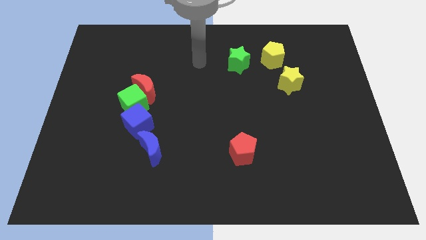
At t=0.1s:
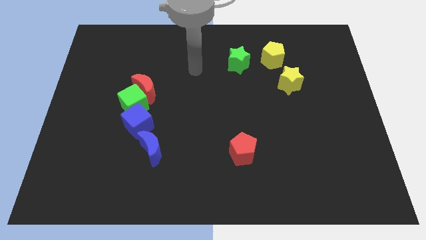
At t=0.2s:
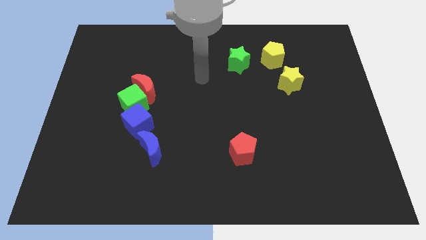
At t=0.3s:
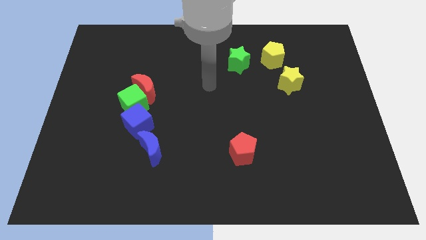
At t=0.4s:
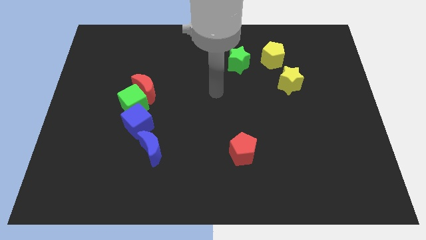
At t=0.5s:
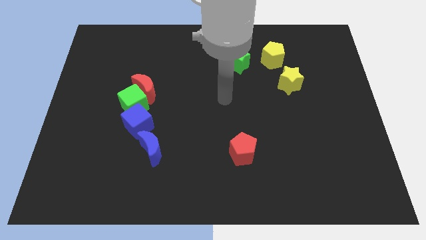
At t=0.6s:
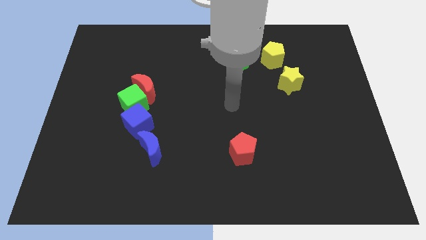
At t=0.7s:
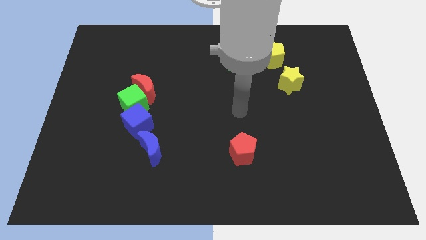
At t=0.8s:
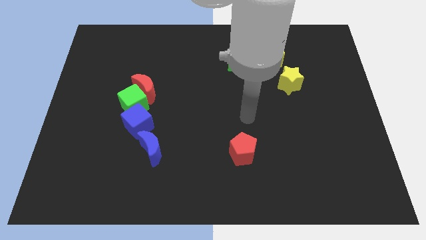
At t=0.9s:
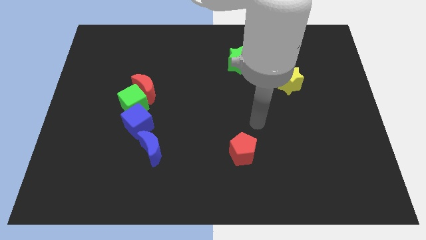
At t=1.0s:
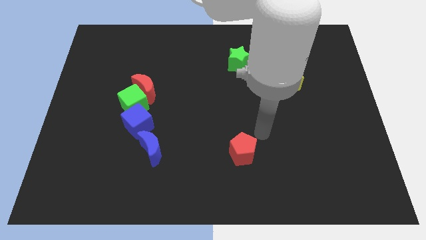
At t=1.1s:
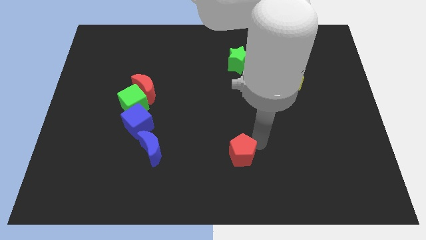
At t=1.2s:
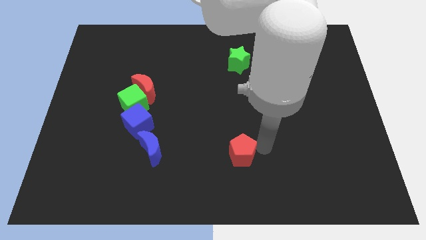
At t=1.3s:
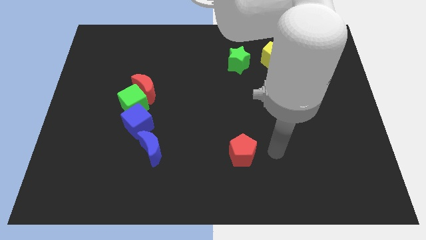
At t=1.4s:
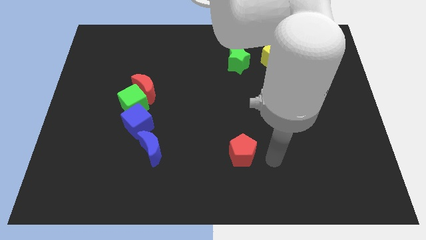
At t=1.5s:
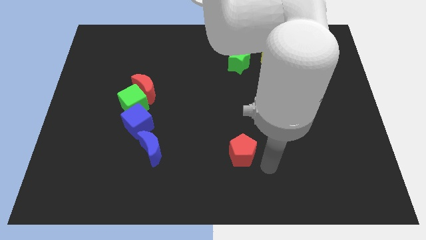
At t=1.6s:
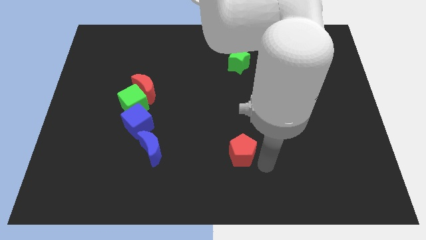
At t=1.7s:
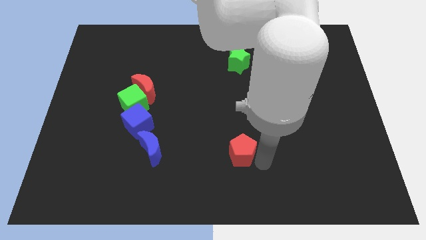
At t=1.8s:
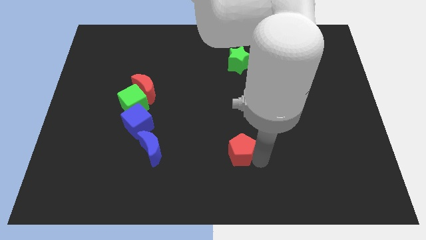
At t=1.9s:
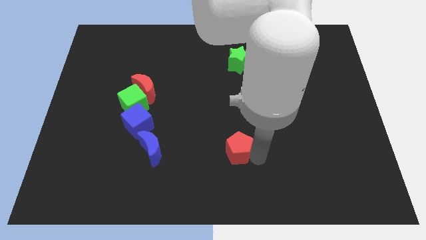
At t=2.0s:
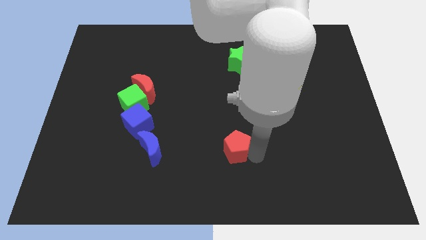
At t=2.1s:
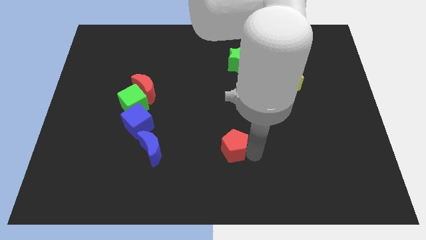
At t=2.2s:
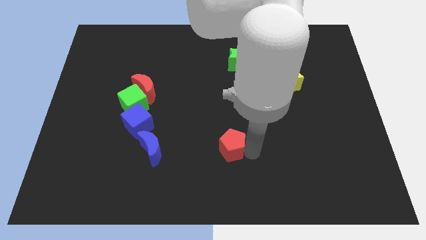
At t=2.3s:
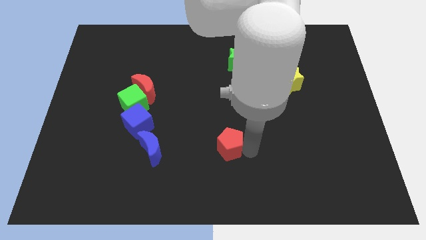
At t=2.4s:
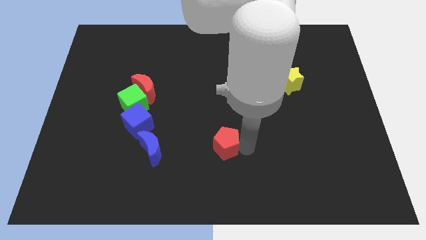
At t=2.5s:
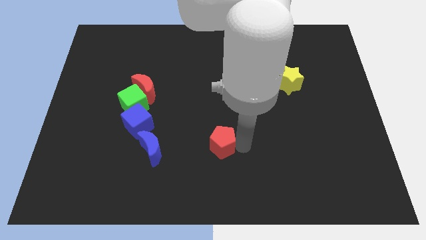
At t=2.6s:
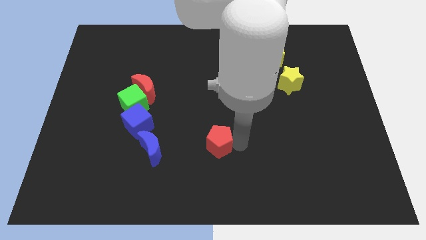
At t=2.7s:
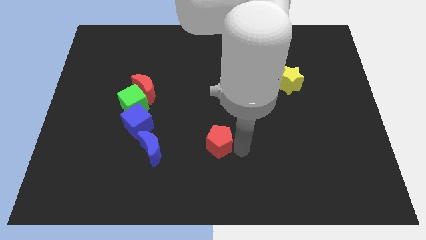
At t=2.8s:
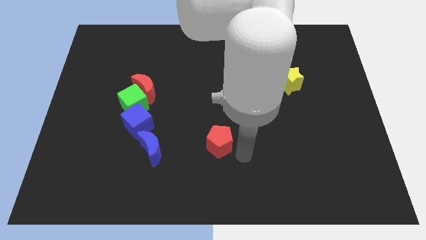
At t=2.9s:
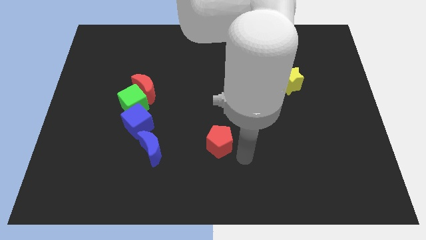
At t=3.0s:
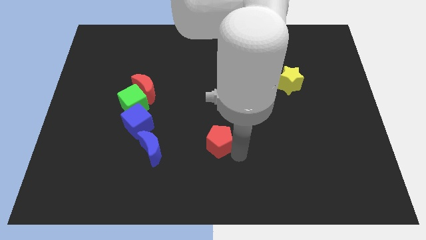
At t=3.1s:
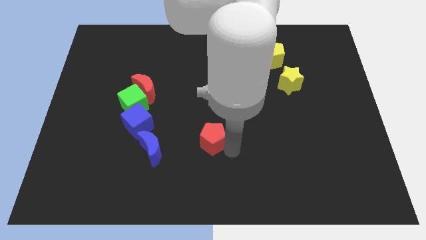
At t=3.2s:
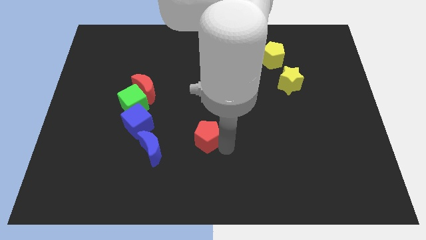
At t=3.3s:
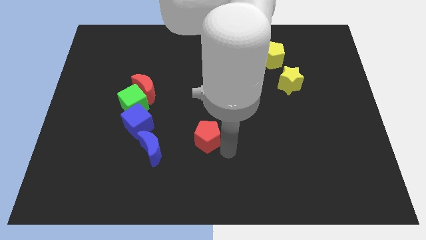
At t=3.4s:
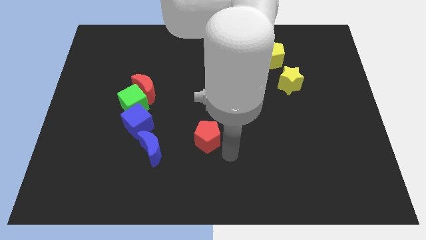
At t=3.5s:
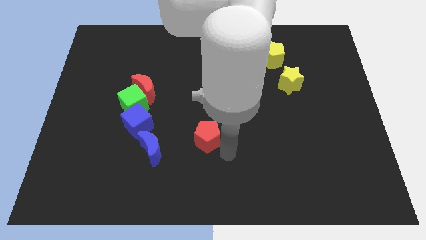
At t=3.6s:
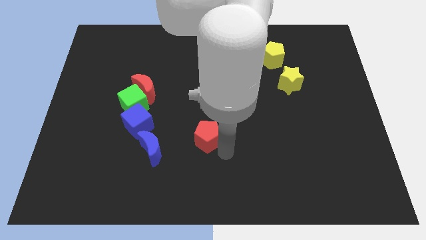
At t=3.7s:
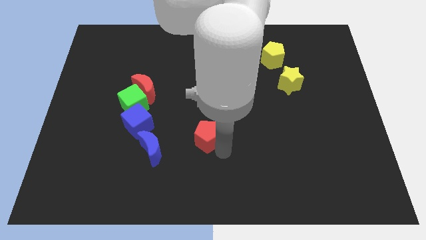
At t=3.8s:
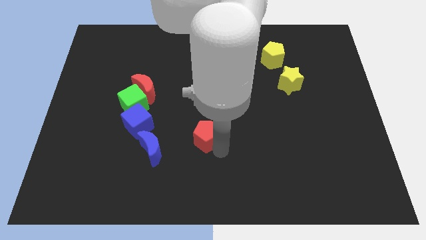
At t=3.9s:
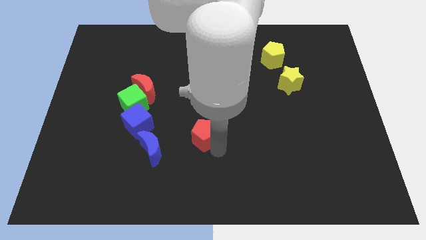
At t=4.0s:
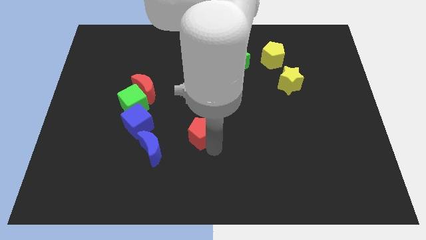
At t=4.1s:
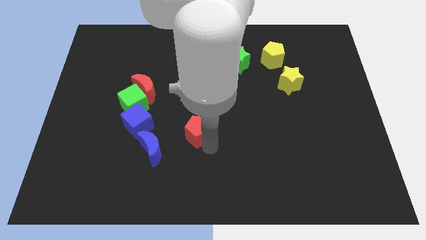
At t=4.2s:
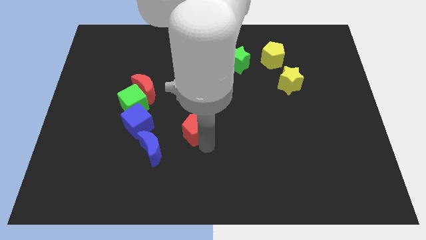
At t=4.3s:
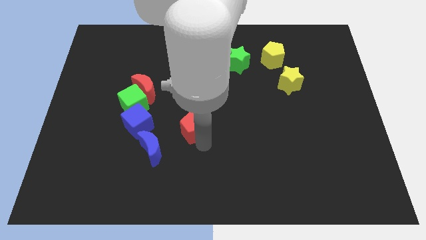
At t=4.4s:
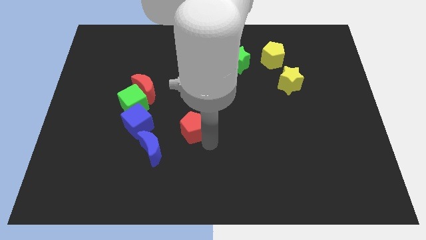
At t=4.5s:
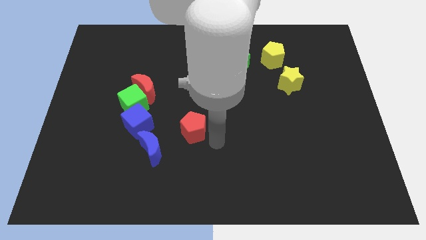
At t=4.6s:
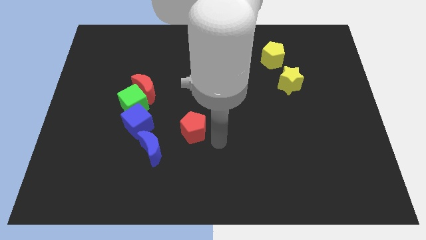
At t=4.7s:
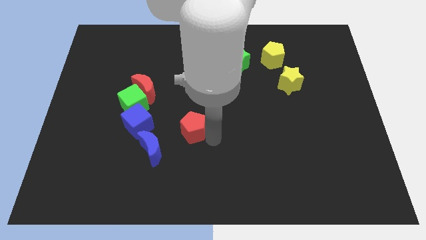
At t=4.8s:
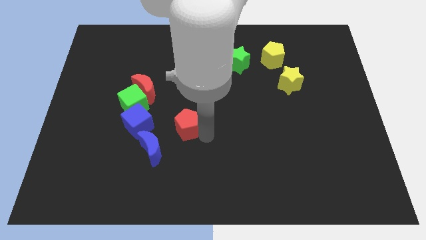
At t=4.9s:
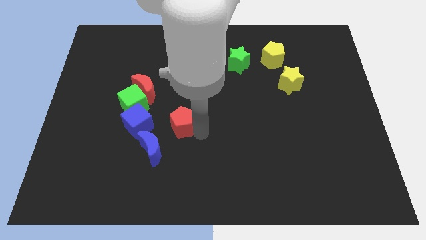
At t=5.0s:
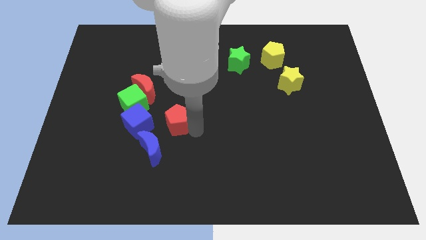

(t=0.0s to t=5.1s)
push the red pentagon to the top of the blue moon

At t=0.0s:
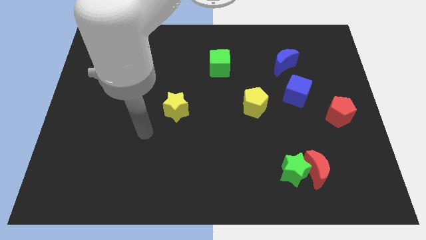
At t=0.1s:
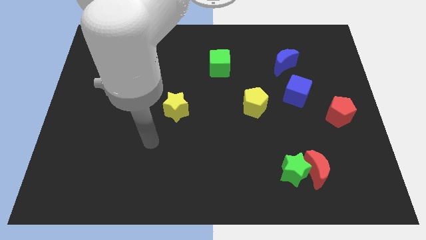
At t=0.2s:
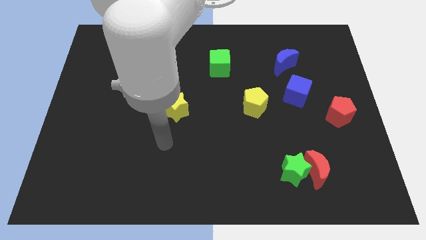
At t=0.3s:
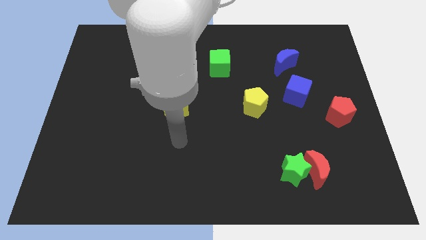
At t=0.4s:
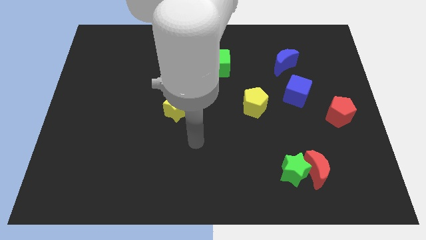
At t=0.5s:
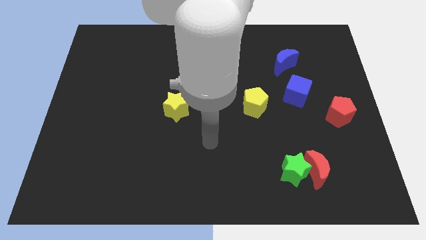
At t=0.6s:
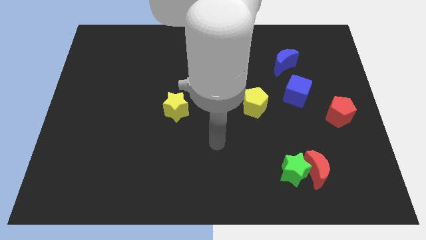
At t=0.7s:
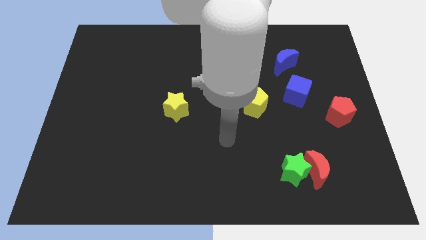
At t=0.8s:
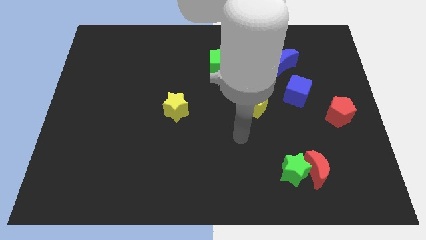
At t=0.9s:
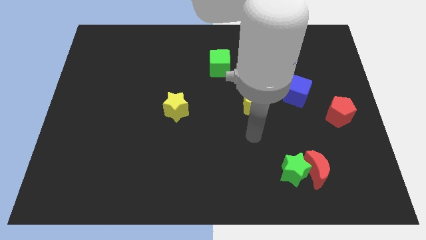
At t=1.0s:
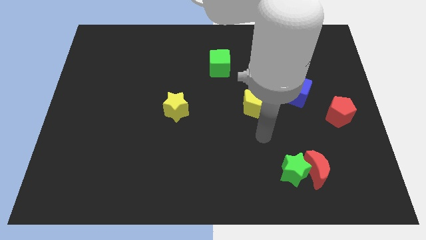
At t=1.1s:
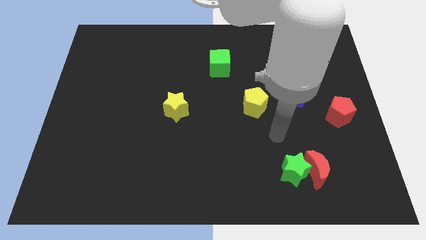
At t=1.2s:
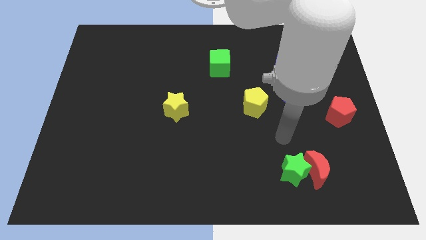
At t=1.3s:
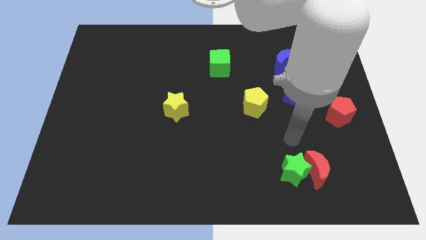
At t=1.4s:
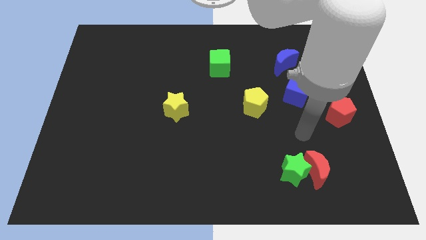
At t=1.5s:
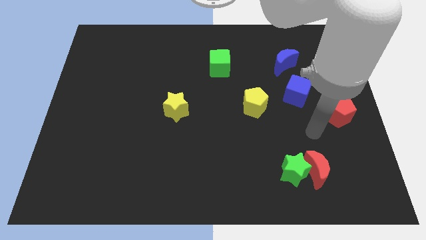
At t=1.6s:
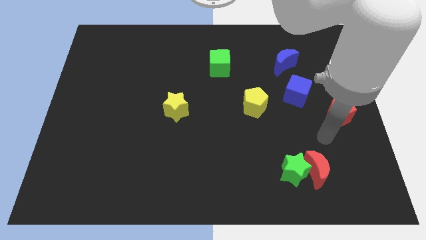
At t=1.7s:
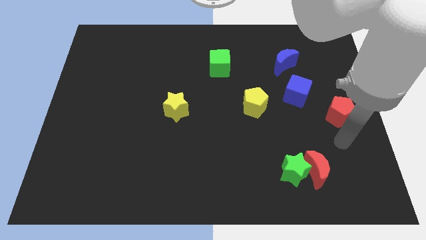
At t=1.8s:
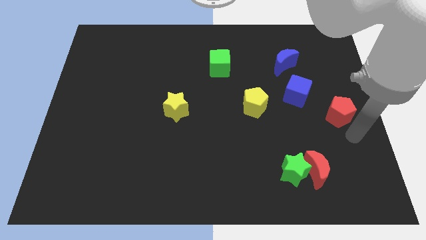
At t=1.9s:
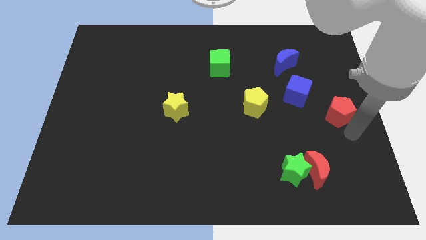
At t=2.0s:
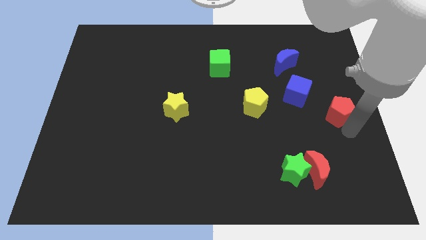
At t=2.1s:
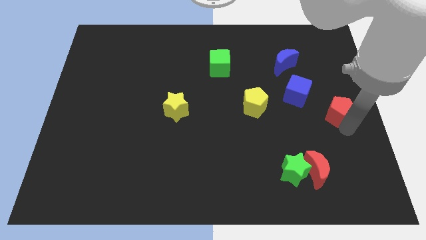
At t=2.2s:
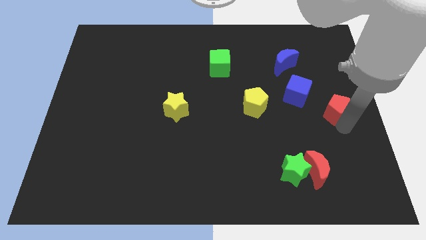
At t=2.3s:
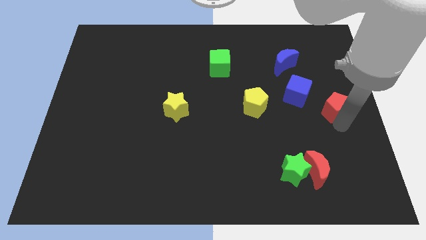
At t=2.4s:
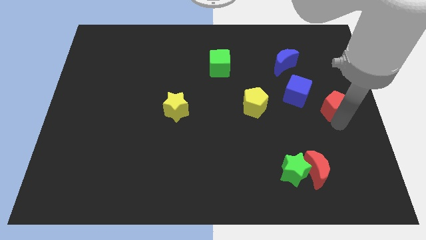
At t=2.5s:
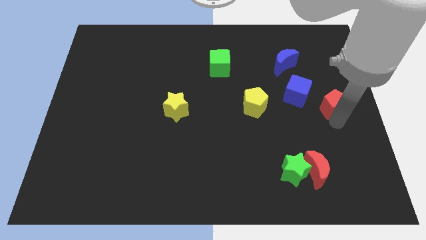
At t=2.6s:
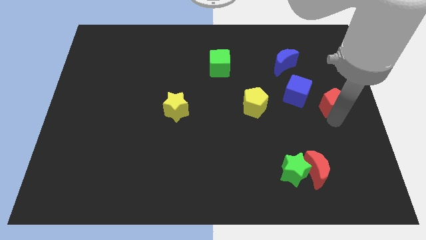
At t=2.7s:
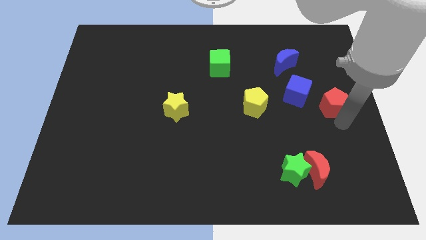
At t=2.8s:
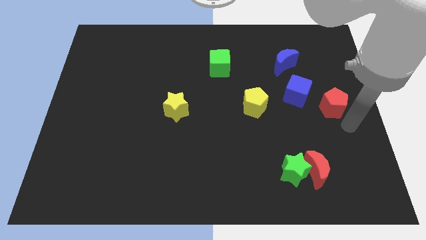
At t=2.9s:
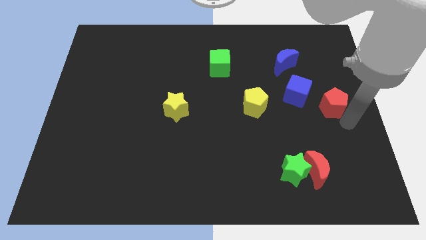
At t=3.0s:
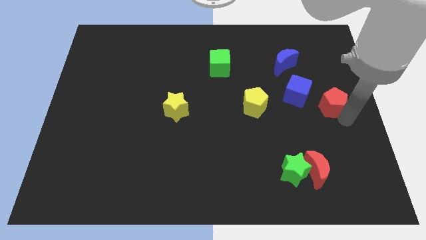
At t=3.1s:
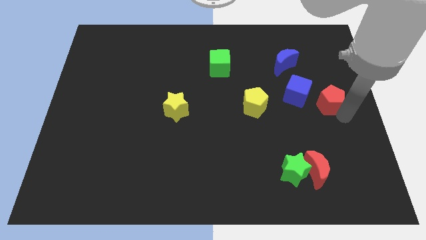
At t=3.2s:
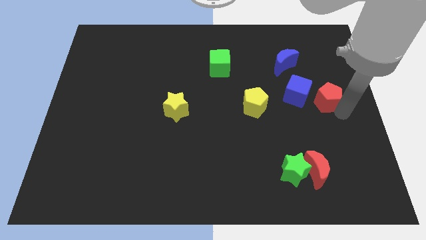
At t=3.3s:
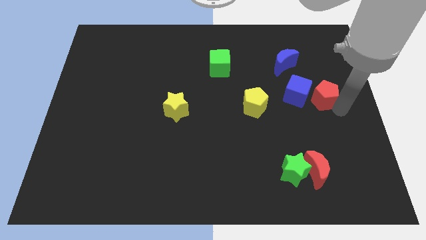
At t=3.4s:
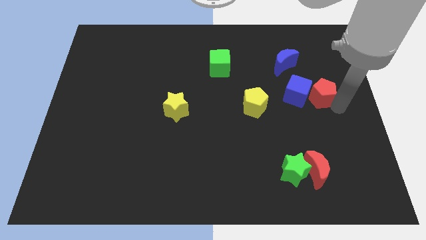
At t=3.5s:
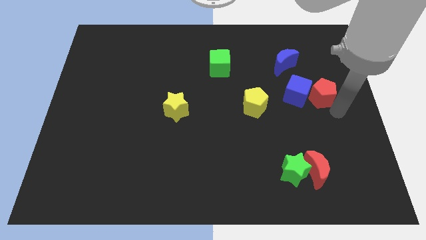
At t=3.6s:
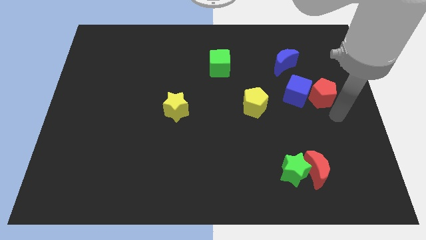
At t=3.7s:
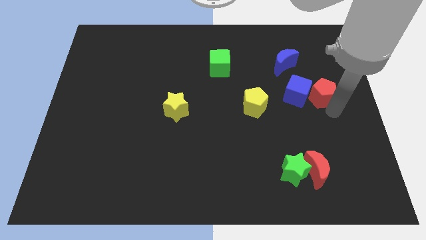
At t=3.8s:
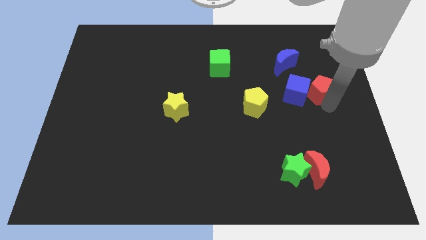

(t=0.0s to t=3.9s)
push the red pentagon to the bottom right side of the blue moon
